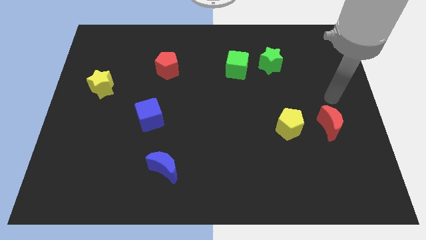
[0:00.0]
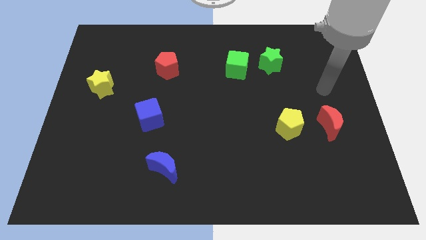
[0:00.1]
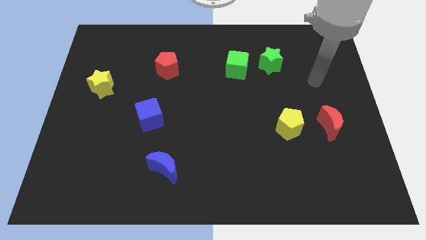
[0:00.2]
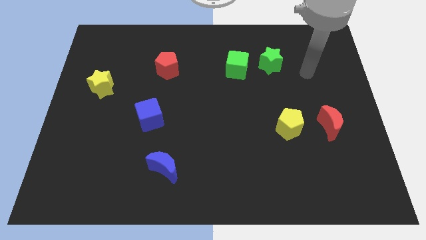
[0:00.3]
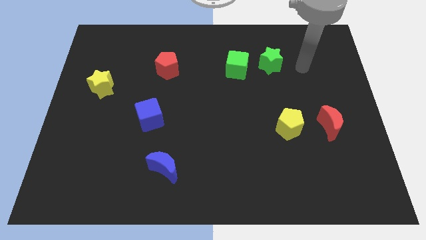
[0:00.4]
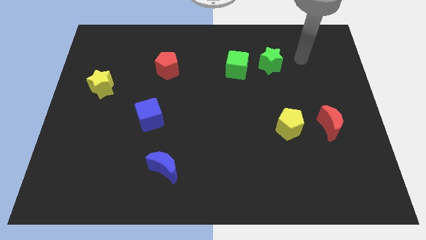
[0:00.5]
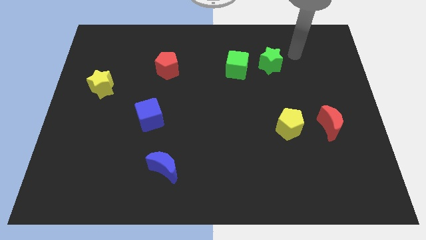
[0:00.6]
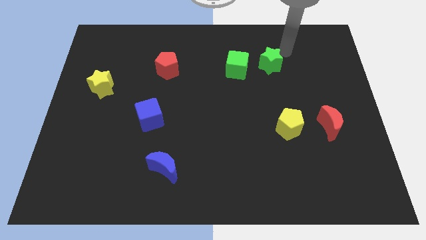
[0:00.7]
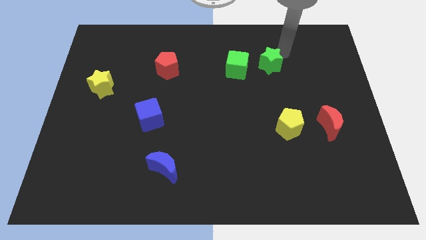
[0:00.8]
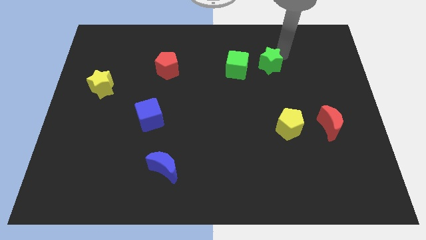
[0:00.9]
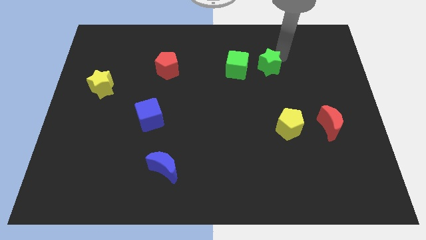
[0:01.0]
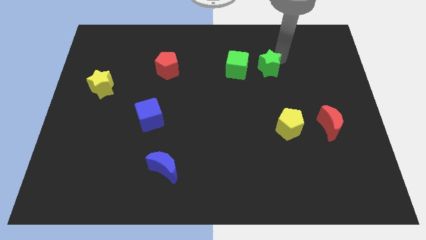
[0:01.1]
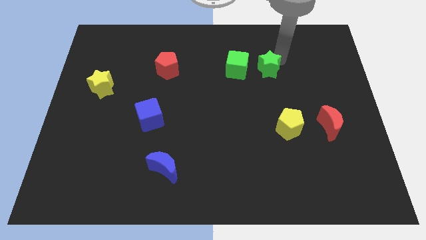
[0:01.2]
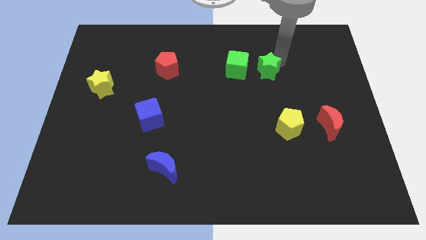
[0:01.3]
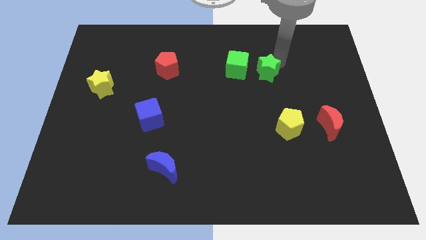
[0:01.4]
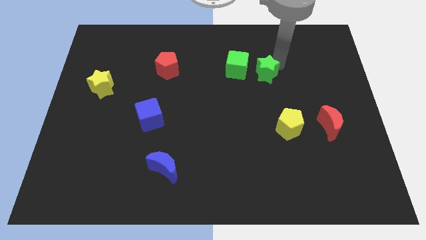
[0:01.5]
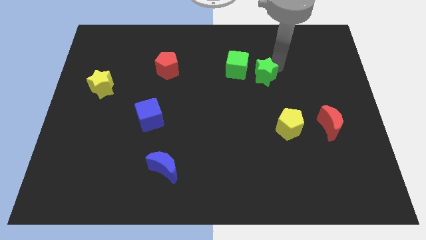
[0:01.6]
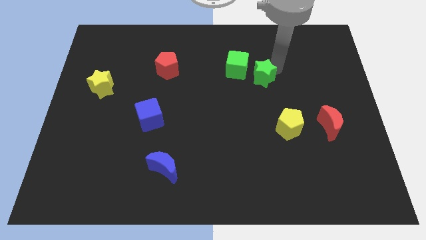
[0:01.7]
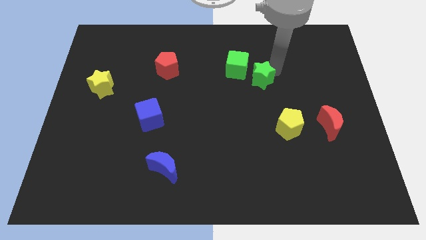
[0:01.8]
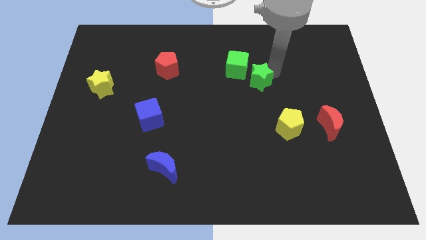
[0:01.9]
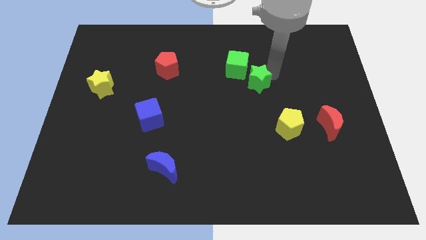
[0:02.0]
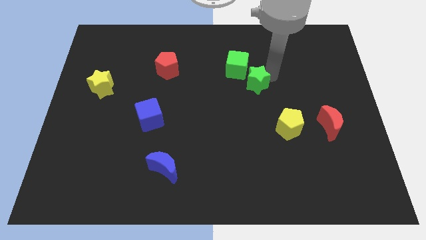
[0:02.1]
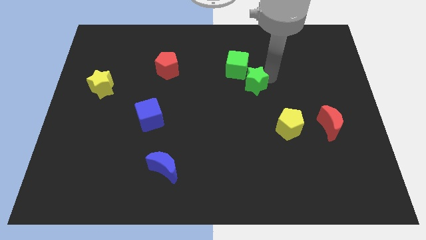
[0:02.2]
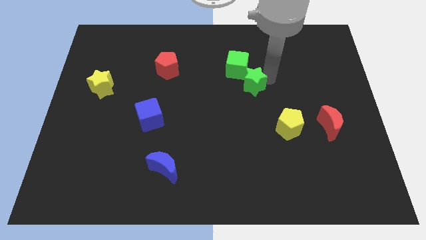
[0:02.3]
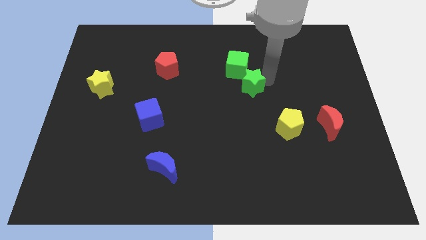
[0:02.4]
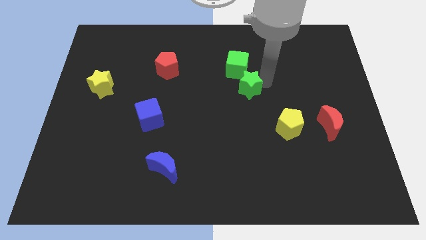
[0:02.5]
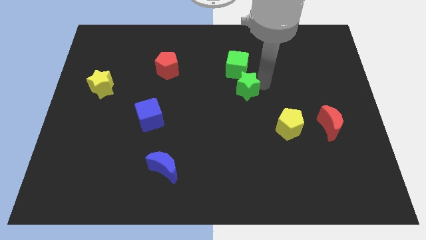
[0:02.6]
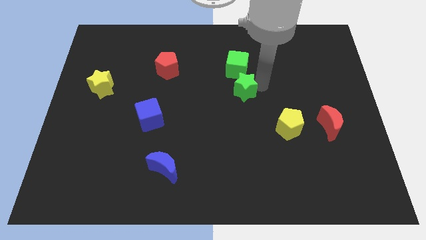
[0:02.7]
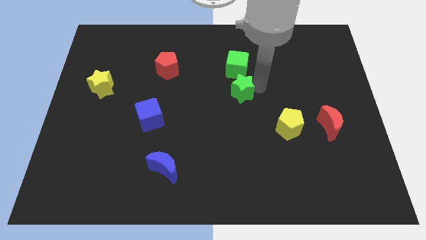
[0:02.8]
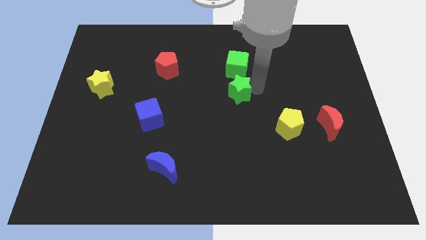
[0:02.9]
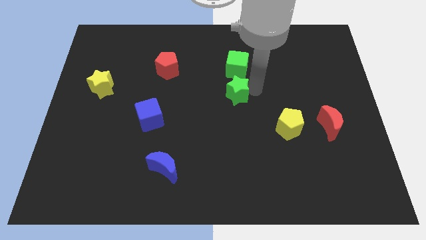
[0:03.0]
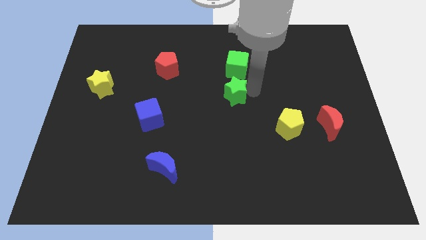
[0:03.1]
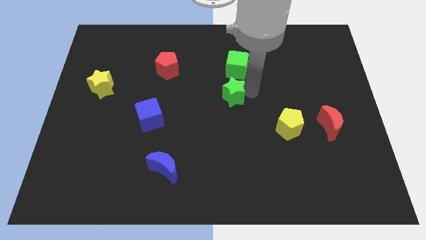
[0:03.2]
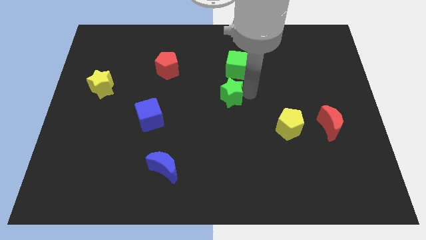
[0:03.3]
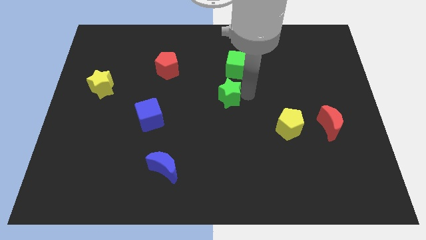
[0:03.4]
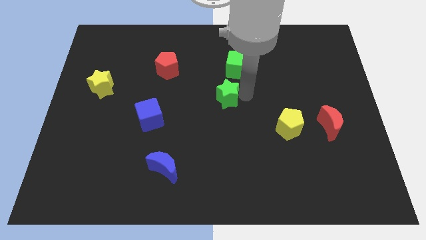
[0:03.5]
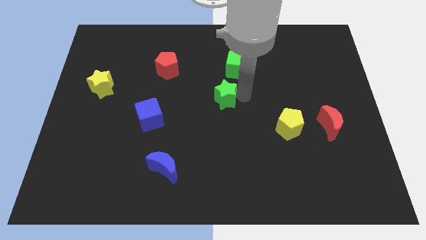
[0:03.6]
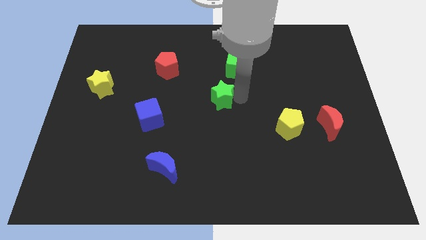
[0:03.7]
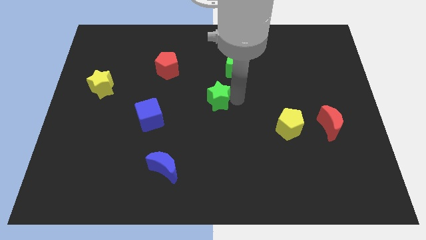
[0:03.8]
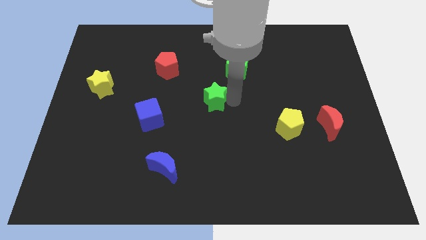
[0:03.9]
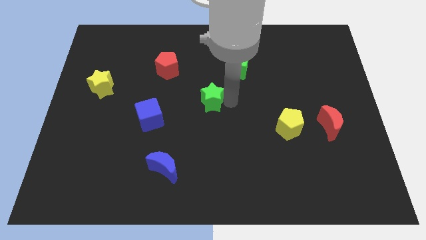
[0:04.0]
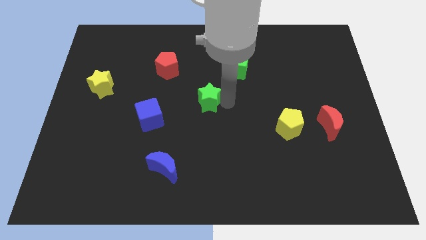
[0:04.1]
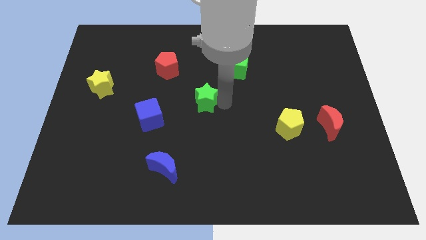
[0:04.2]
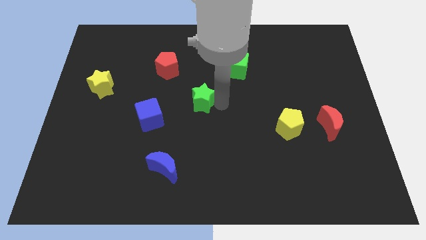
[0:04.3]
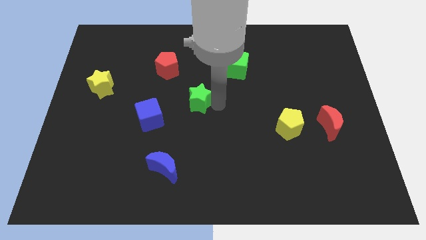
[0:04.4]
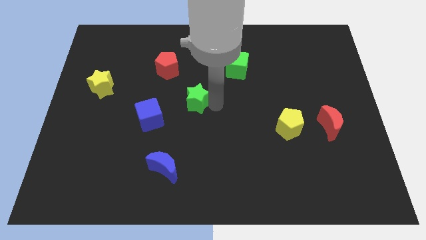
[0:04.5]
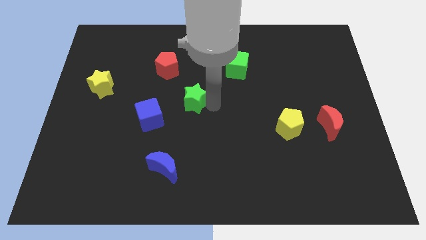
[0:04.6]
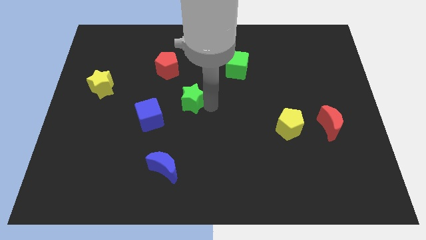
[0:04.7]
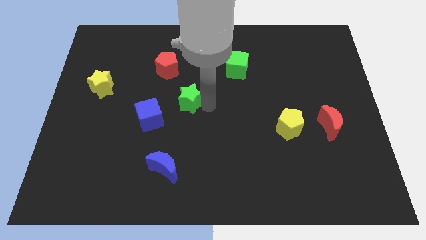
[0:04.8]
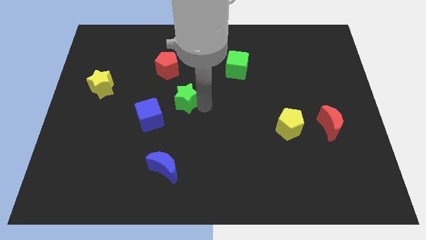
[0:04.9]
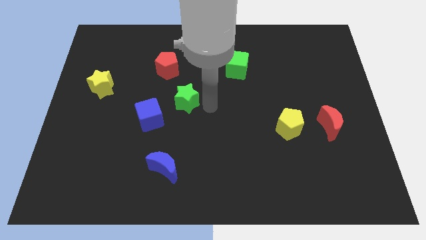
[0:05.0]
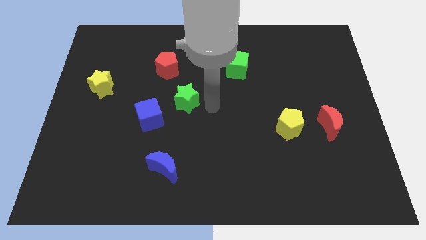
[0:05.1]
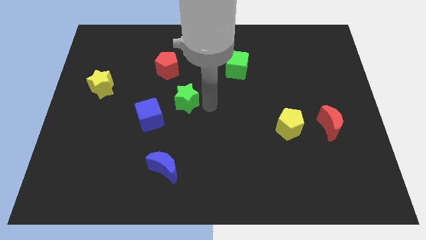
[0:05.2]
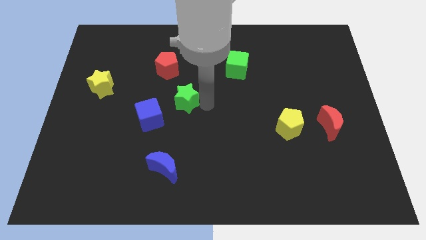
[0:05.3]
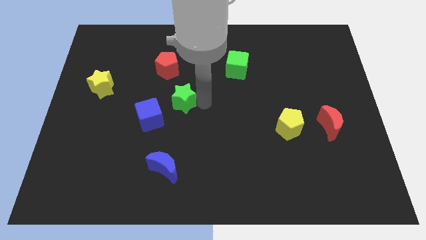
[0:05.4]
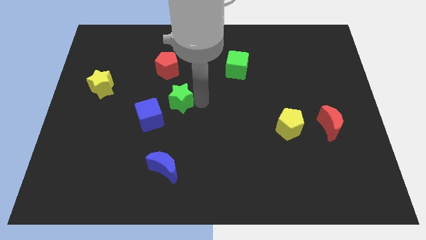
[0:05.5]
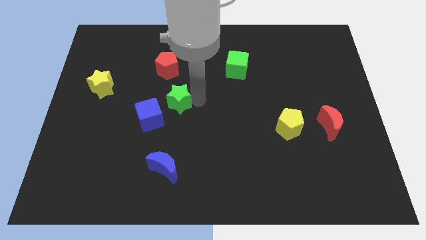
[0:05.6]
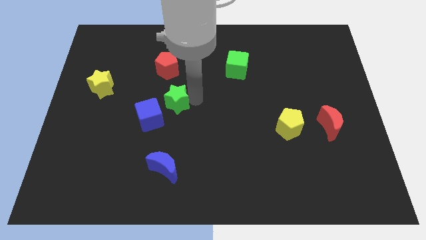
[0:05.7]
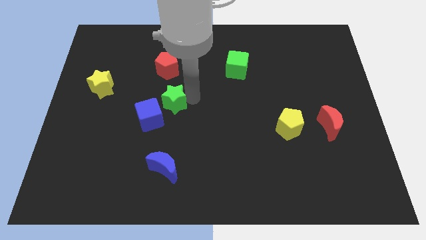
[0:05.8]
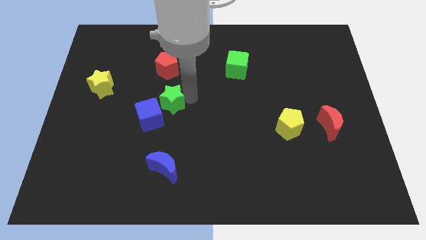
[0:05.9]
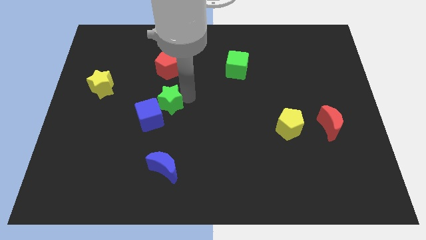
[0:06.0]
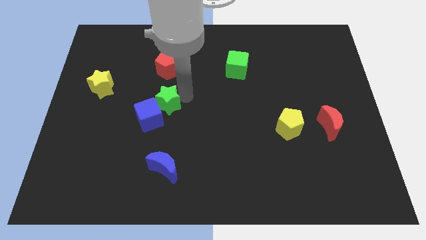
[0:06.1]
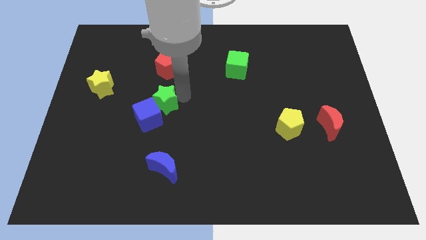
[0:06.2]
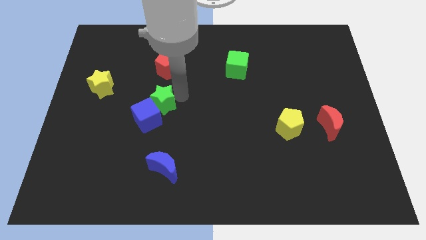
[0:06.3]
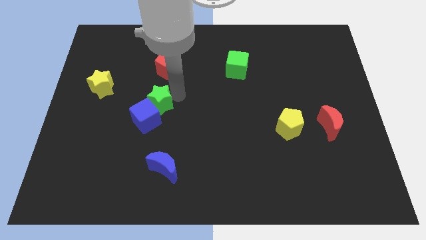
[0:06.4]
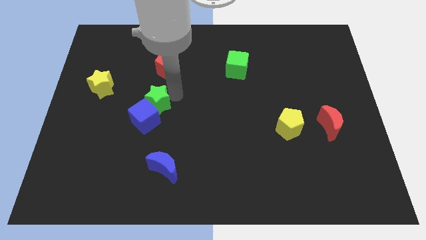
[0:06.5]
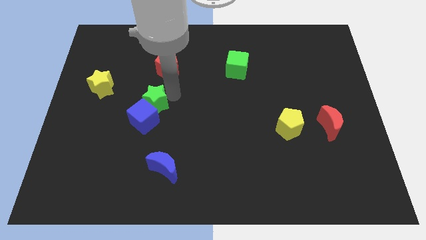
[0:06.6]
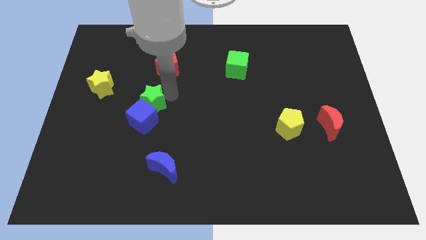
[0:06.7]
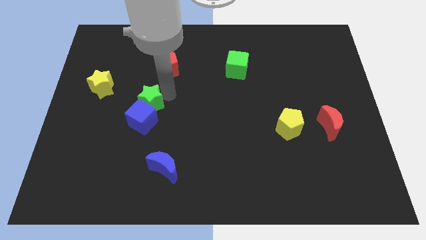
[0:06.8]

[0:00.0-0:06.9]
move the green star to the top left of the blue cube
